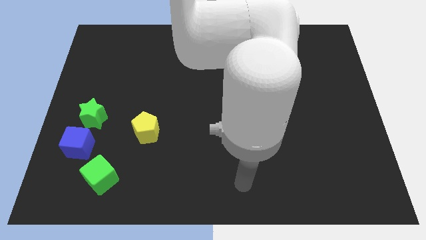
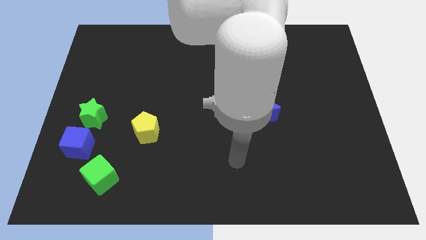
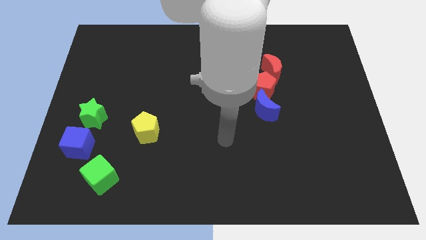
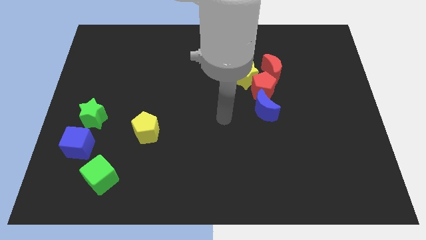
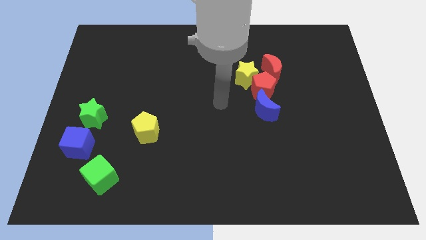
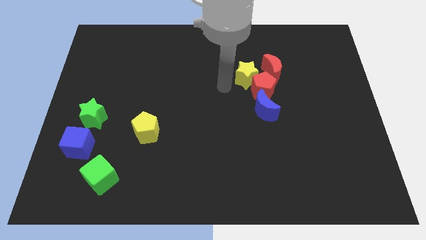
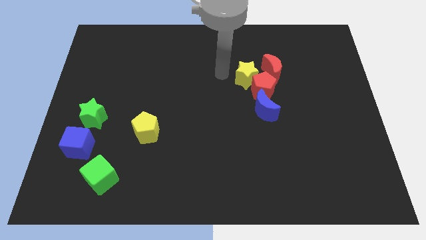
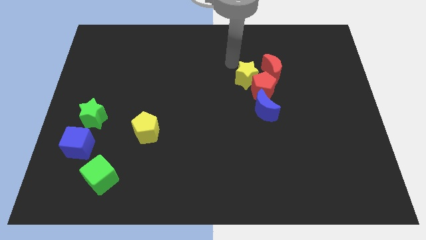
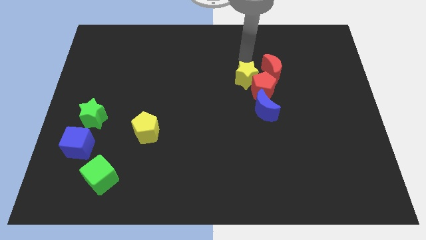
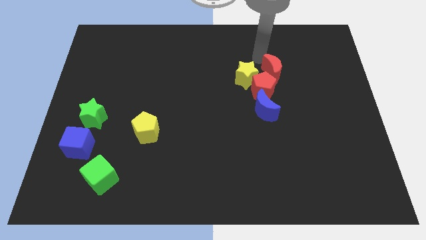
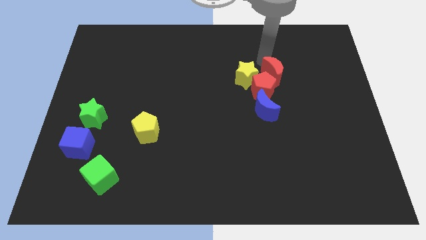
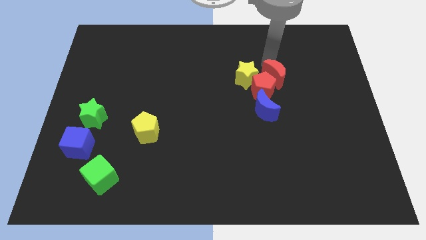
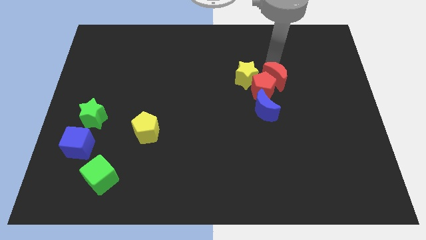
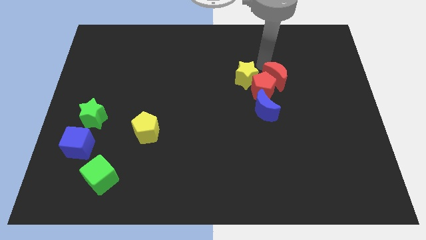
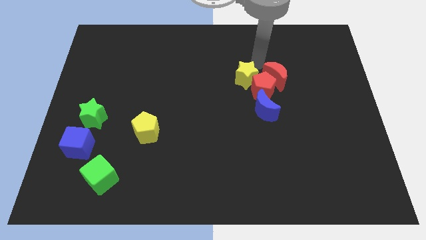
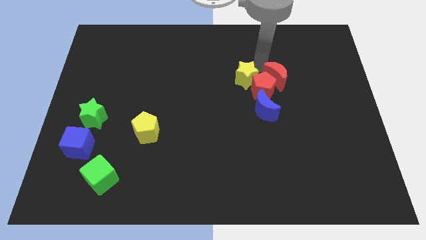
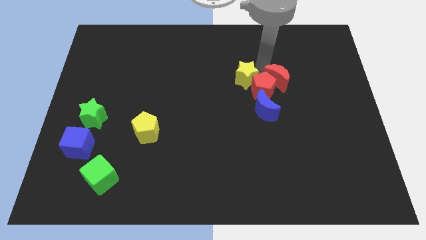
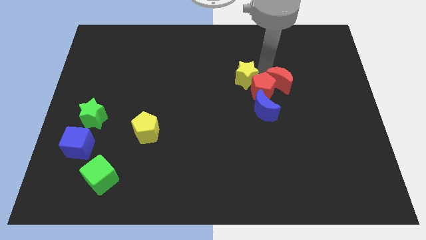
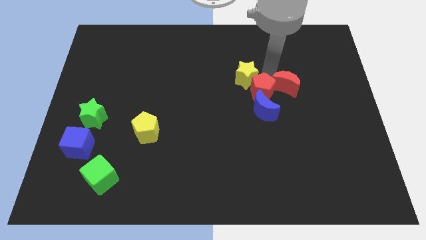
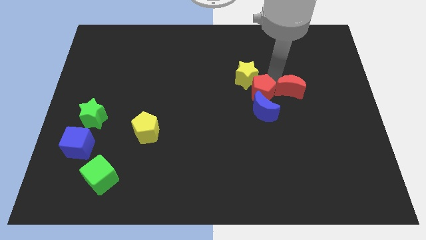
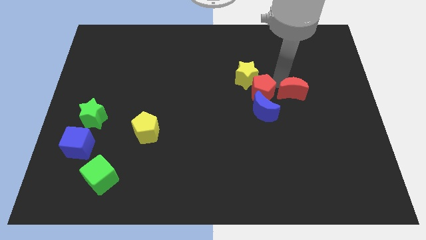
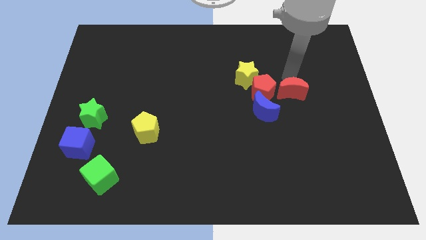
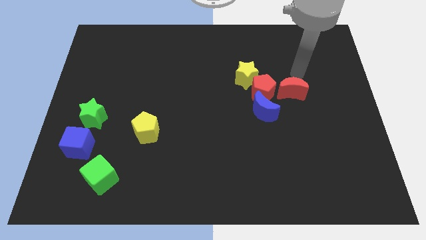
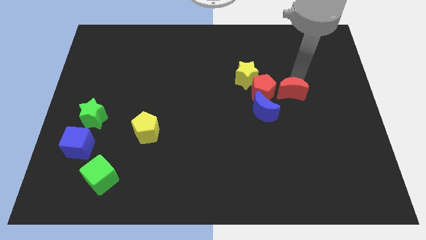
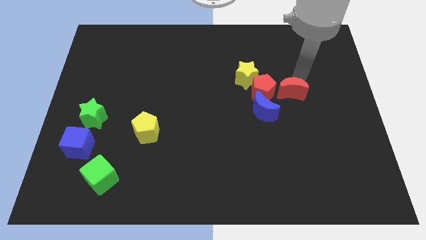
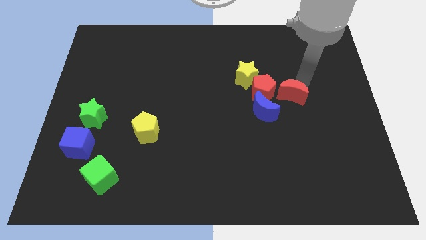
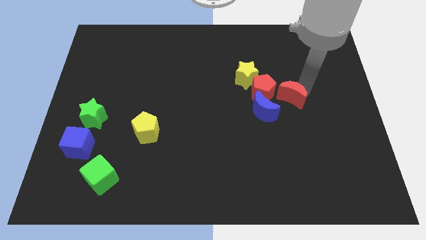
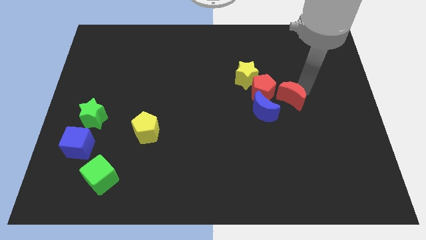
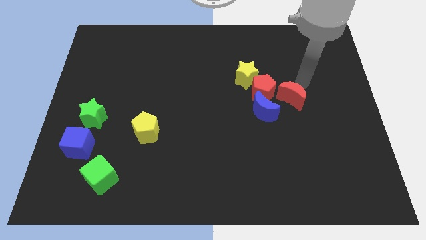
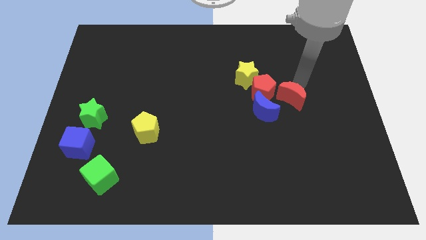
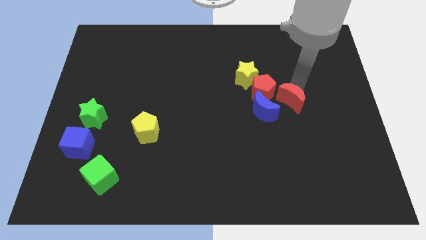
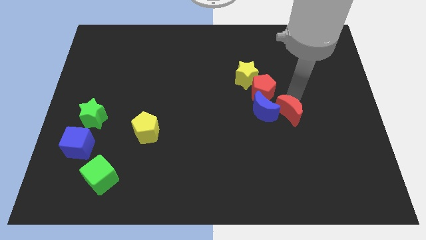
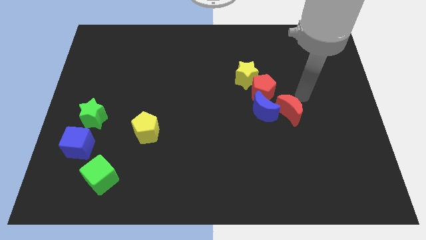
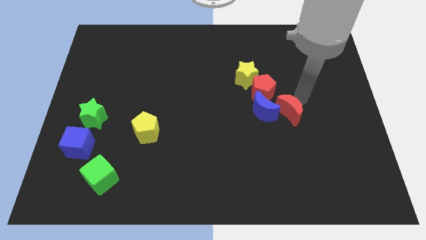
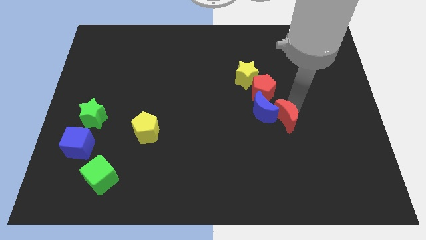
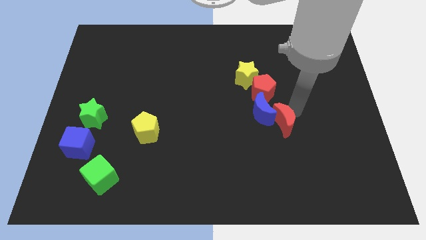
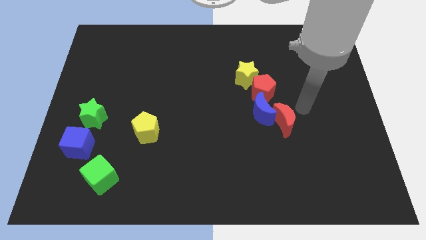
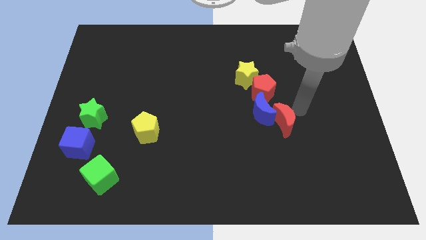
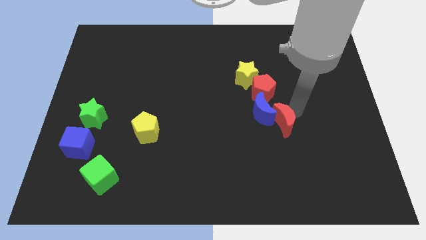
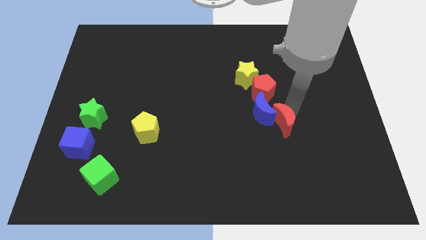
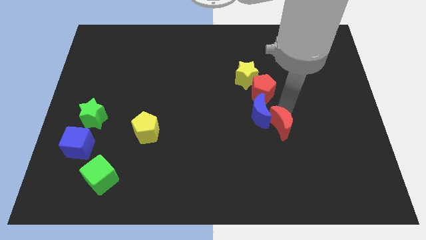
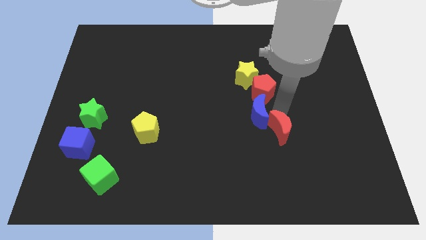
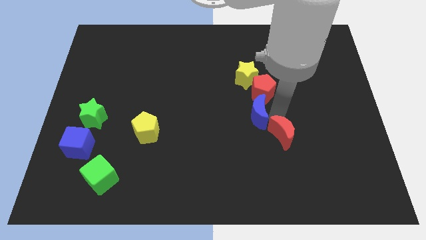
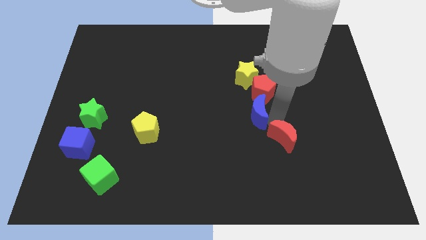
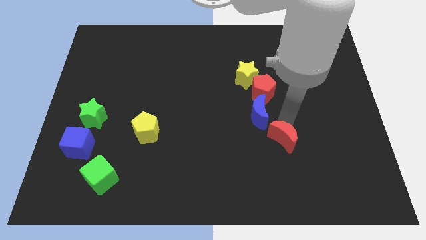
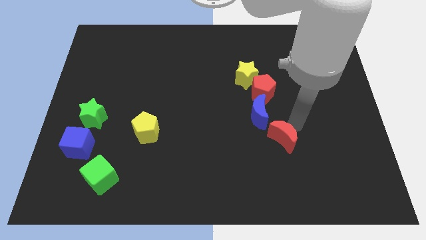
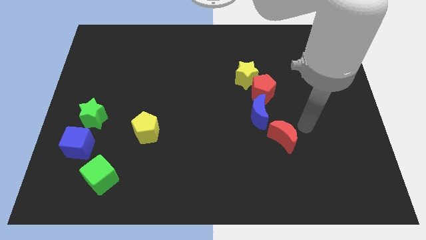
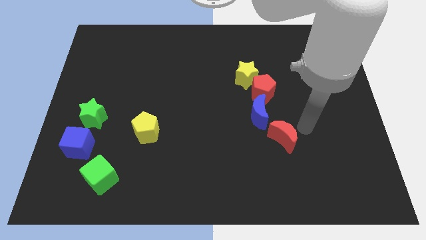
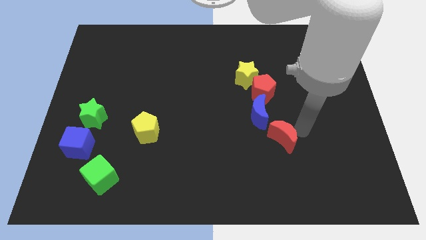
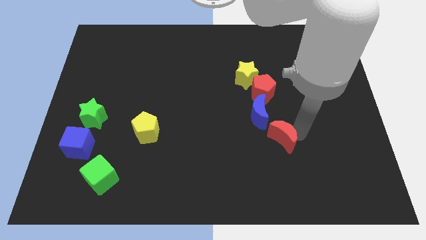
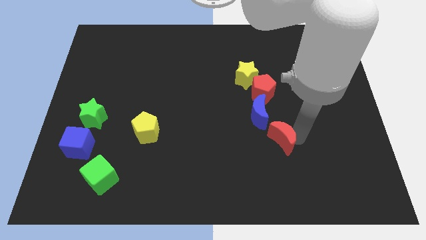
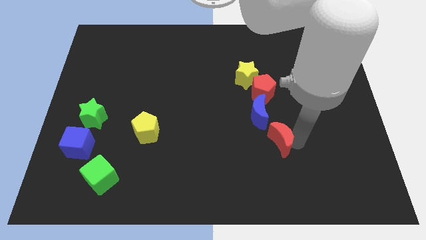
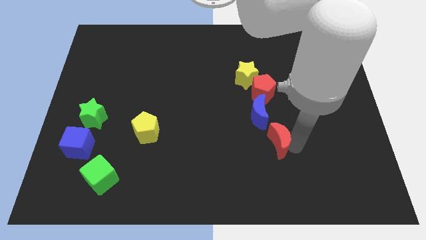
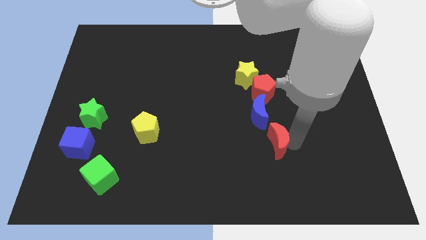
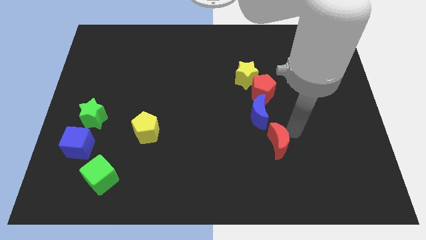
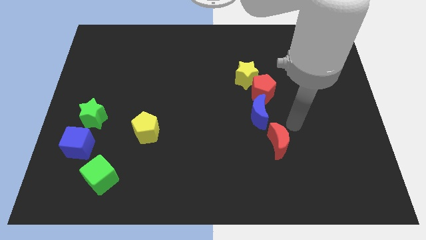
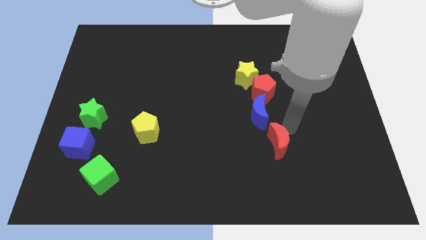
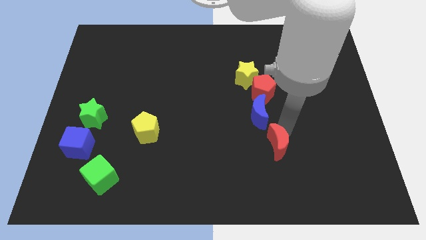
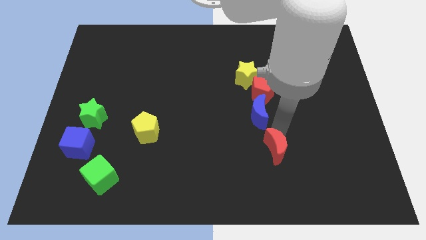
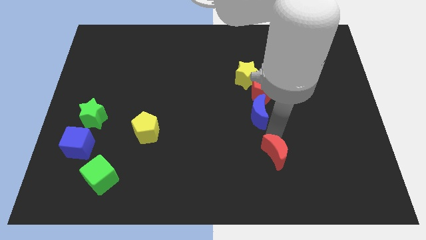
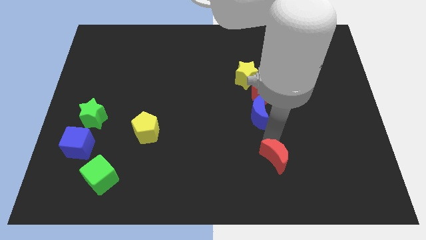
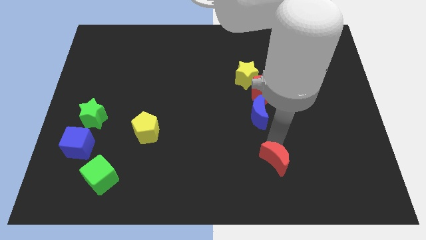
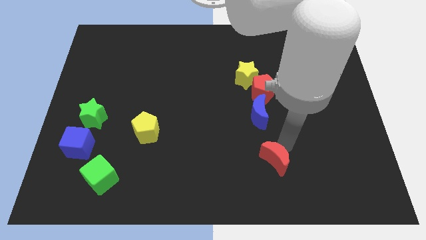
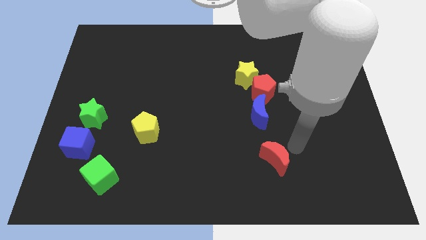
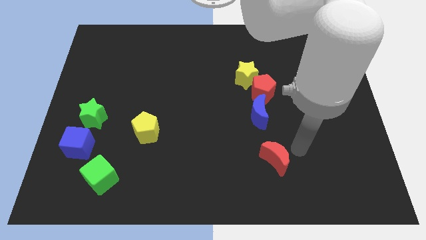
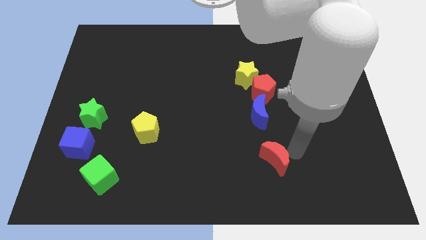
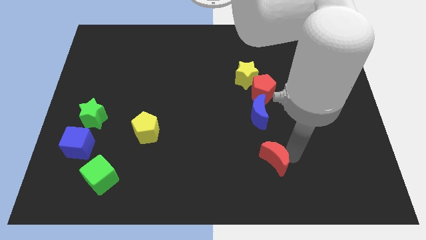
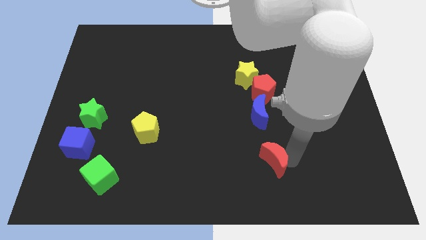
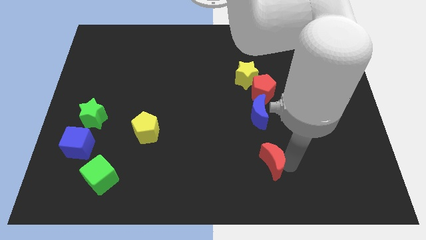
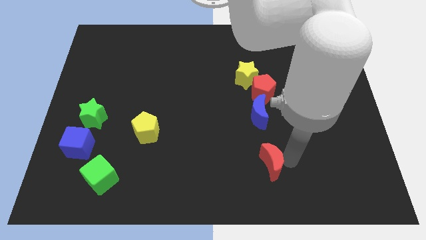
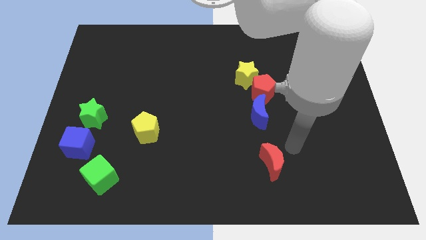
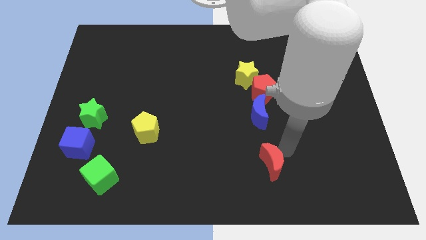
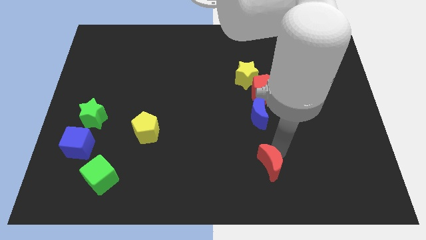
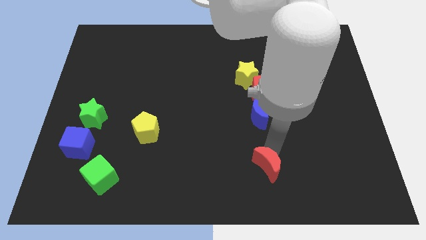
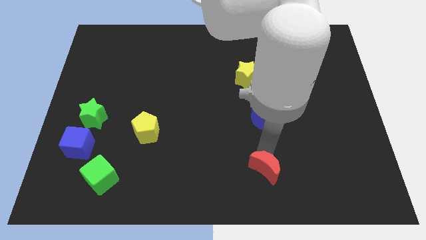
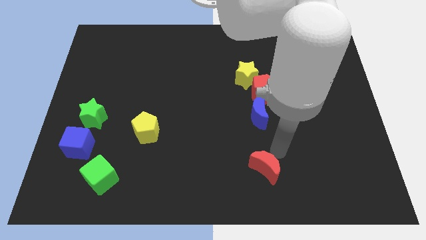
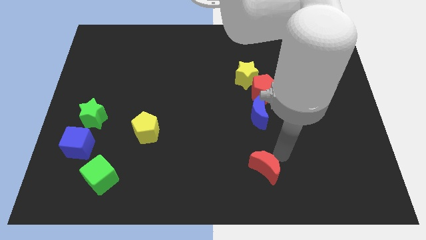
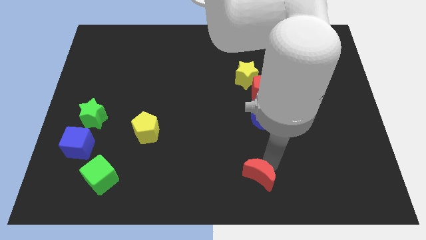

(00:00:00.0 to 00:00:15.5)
move the red moon to the bottom side
